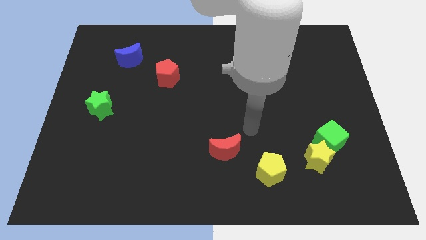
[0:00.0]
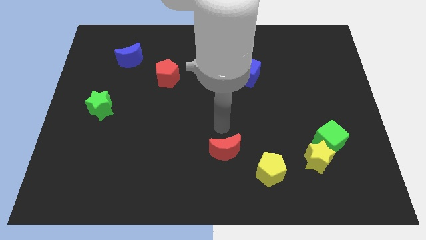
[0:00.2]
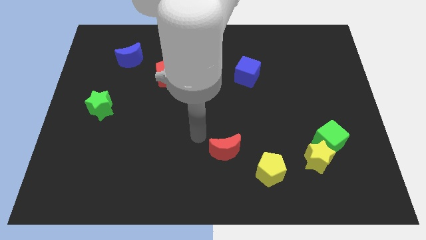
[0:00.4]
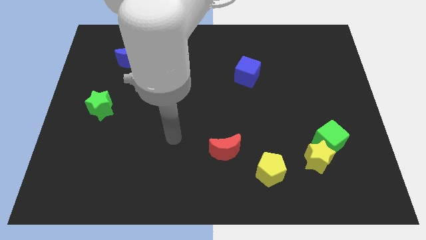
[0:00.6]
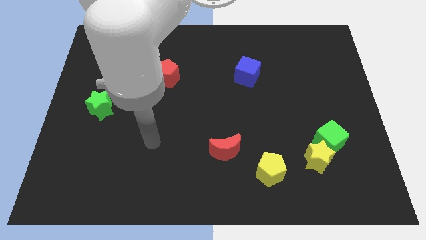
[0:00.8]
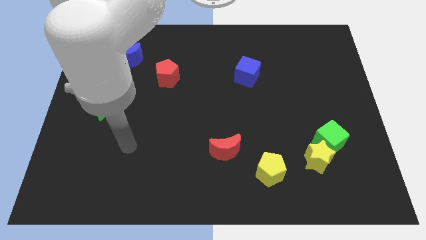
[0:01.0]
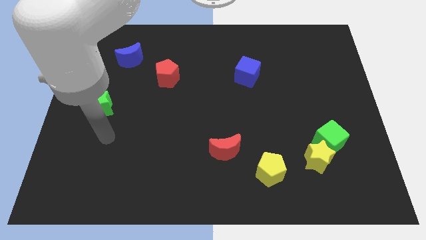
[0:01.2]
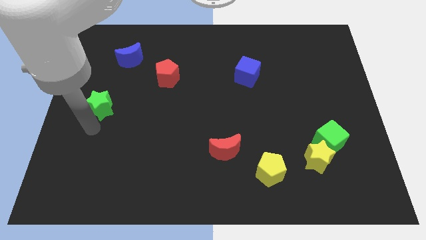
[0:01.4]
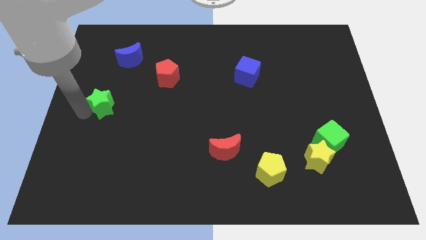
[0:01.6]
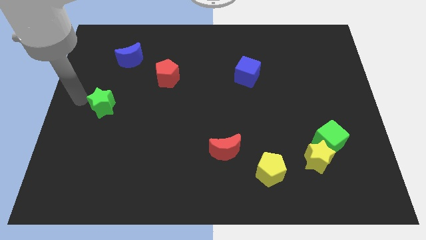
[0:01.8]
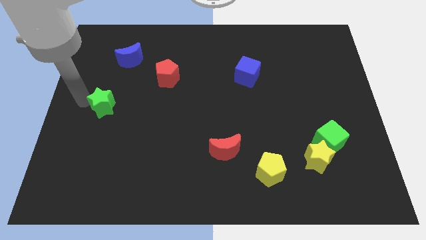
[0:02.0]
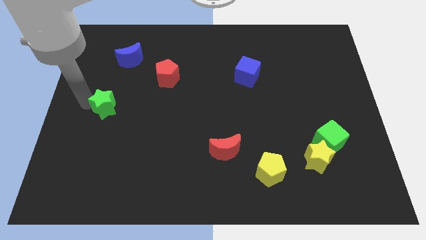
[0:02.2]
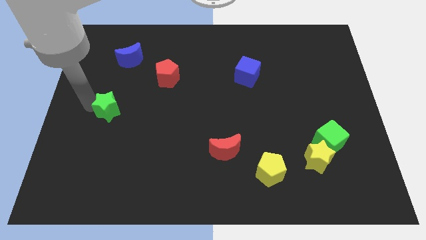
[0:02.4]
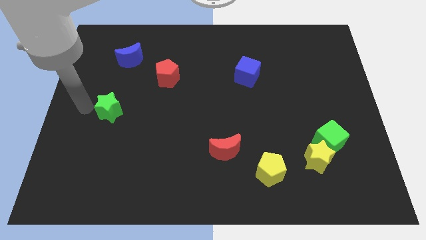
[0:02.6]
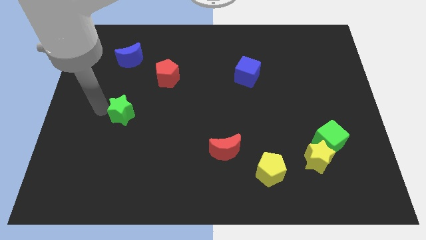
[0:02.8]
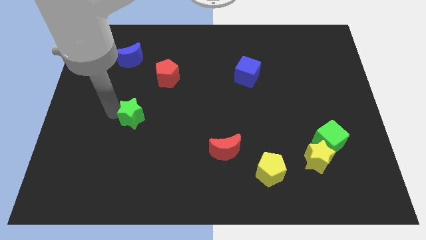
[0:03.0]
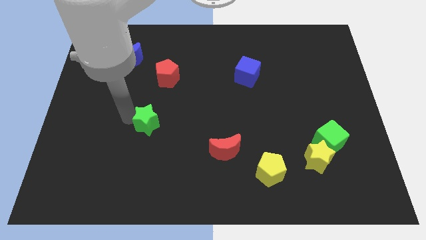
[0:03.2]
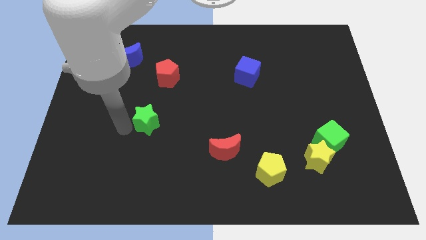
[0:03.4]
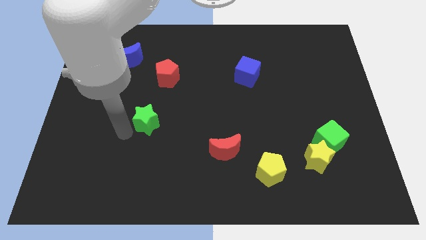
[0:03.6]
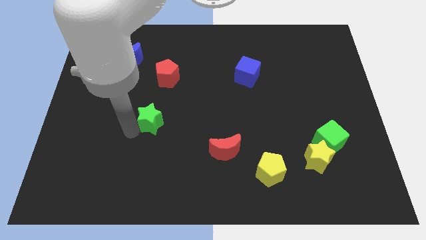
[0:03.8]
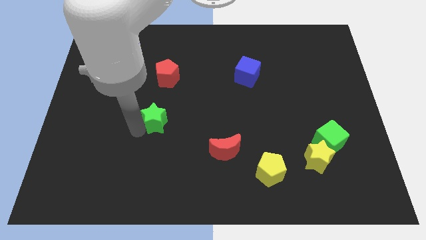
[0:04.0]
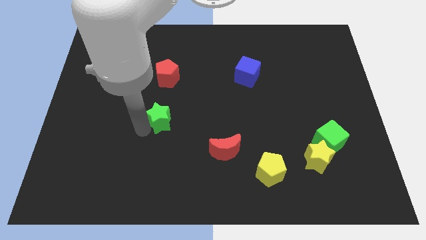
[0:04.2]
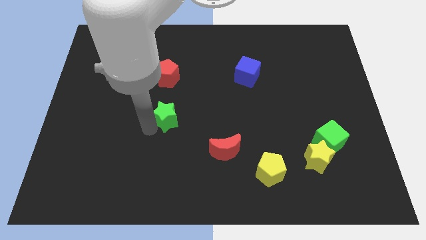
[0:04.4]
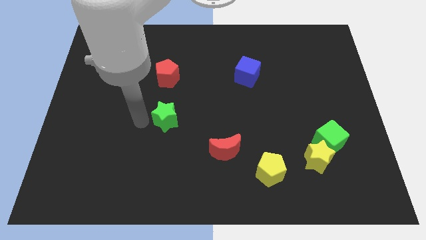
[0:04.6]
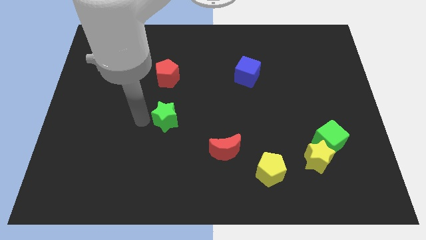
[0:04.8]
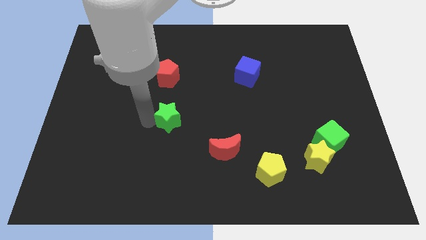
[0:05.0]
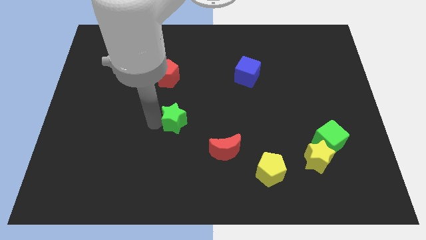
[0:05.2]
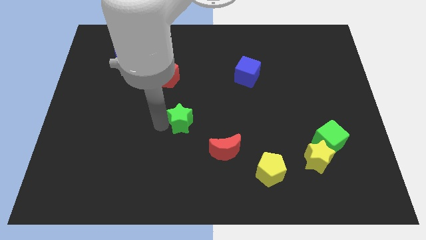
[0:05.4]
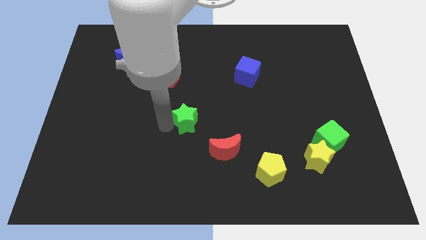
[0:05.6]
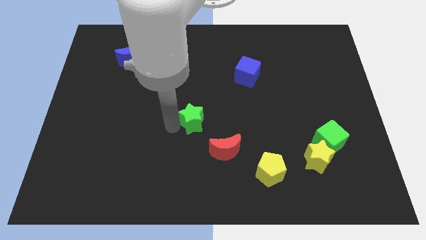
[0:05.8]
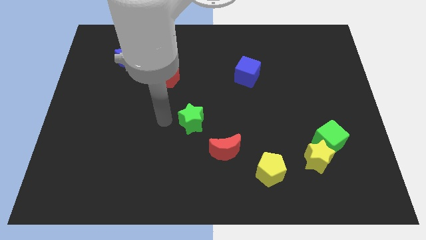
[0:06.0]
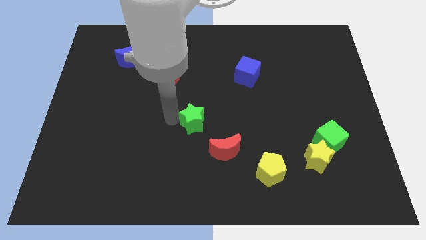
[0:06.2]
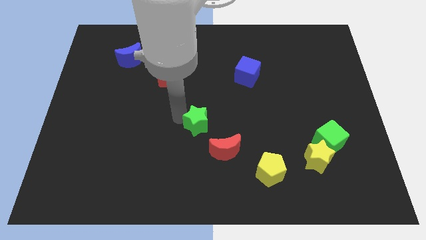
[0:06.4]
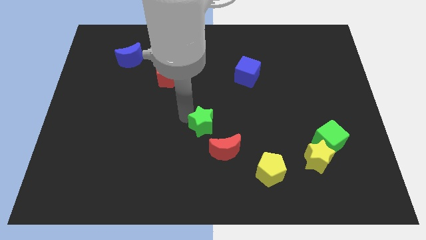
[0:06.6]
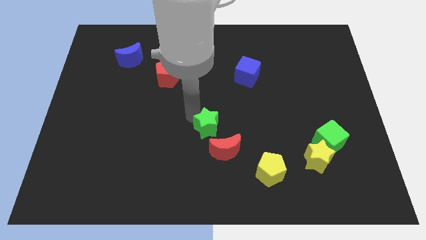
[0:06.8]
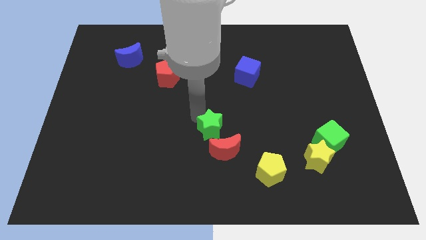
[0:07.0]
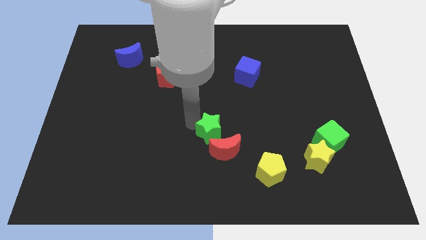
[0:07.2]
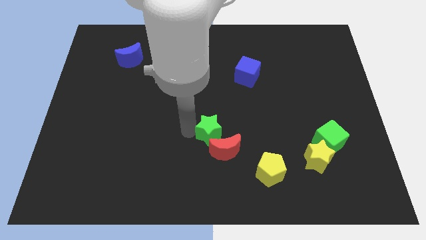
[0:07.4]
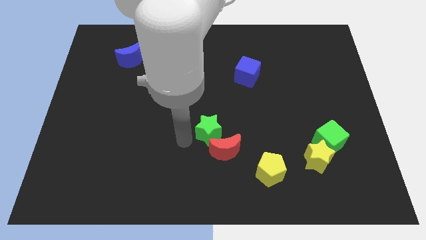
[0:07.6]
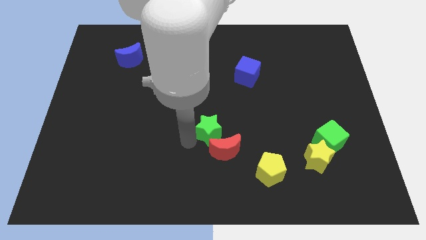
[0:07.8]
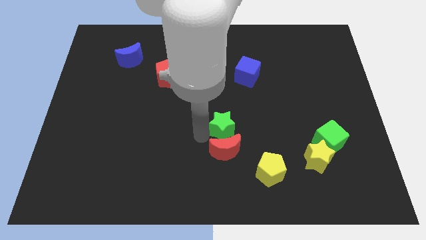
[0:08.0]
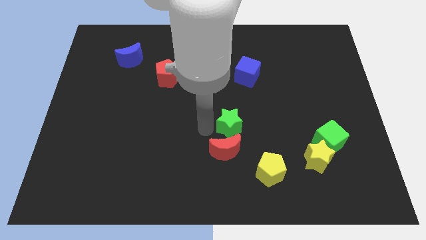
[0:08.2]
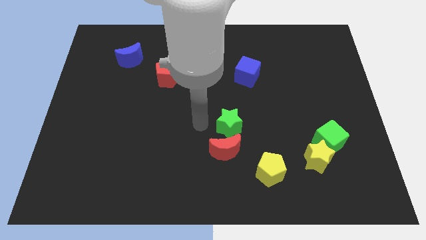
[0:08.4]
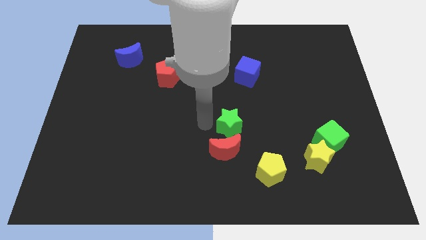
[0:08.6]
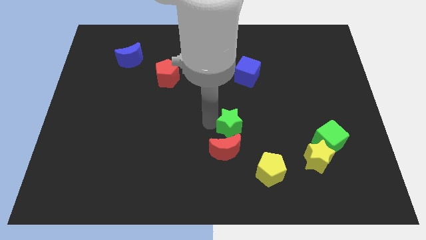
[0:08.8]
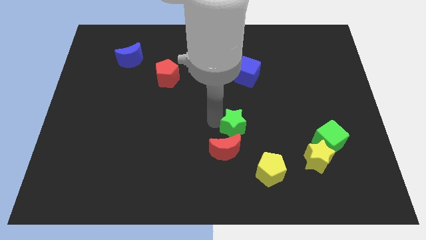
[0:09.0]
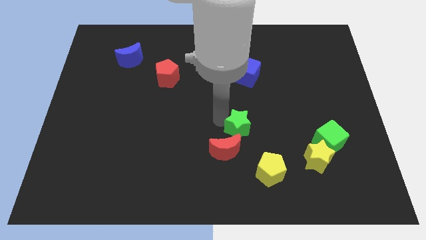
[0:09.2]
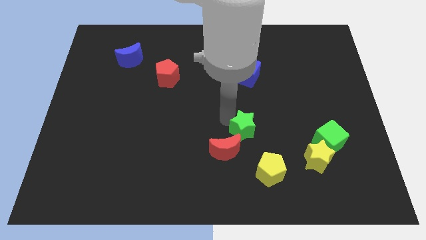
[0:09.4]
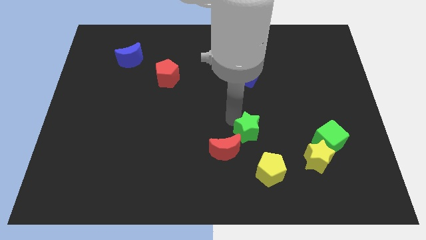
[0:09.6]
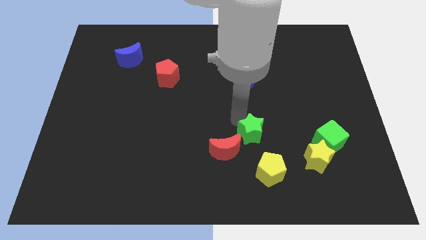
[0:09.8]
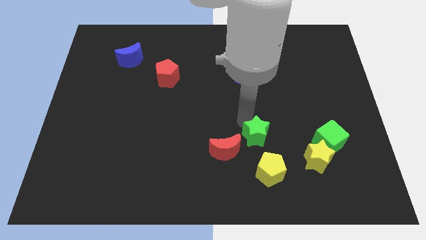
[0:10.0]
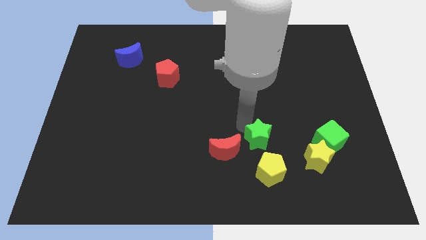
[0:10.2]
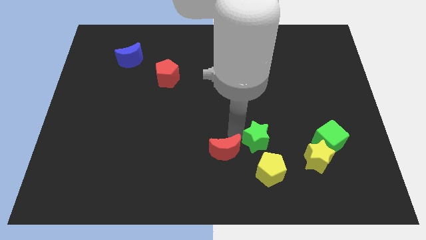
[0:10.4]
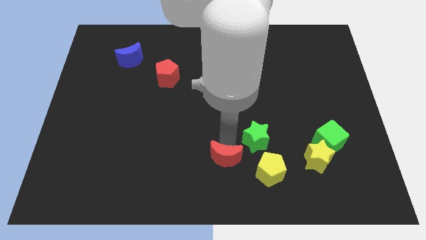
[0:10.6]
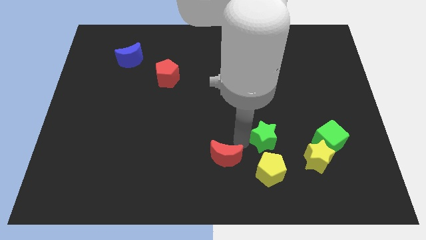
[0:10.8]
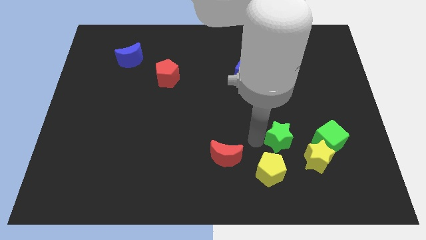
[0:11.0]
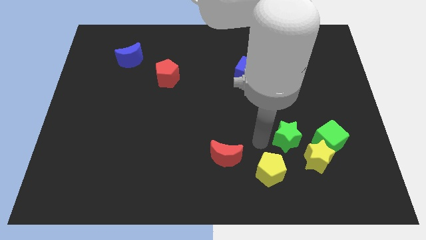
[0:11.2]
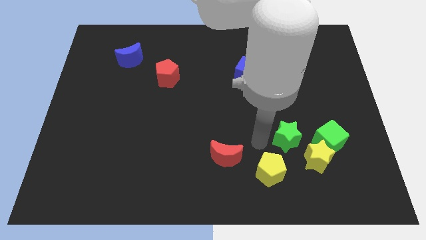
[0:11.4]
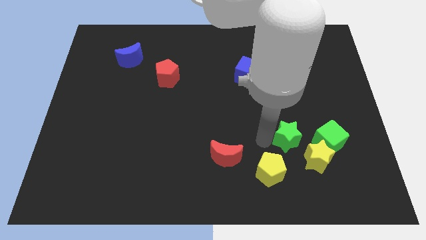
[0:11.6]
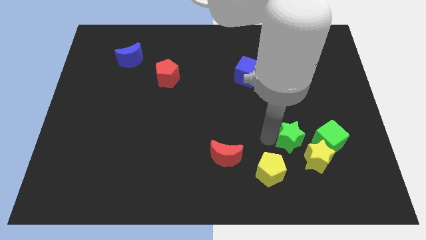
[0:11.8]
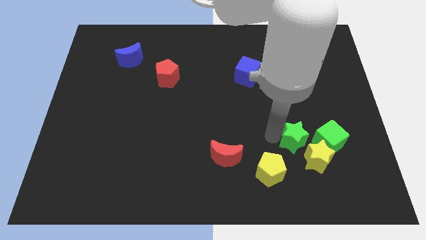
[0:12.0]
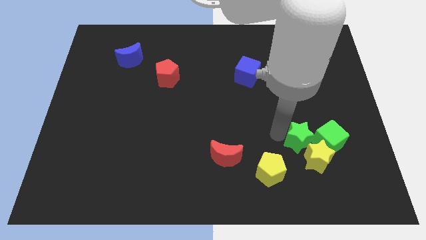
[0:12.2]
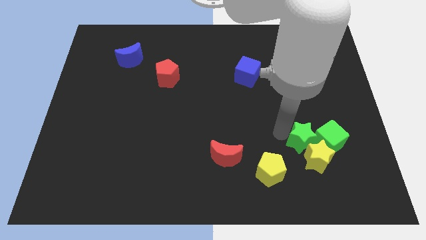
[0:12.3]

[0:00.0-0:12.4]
move the green star close to the green cube

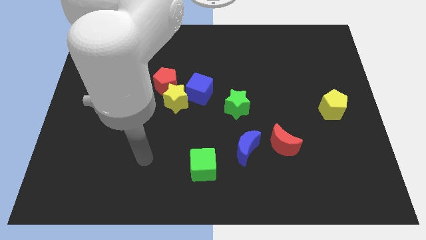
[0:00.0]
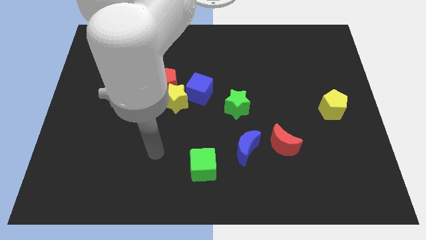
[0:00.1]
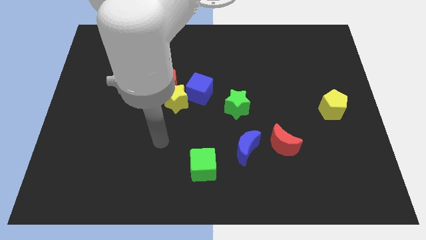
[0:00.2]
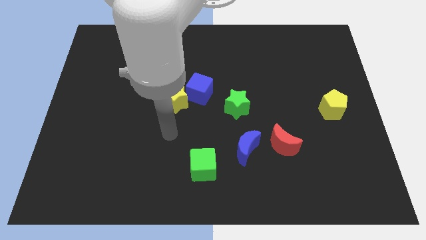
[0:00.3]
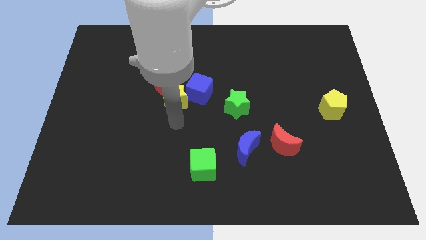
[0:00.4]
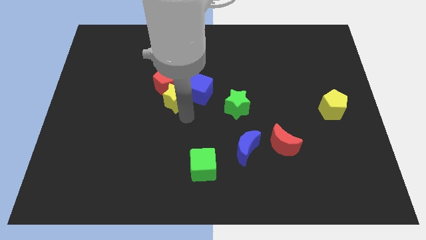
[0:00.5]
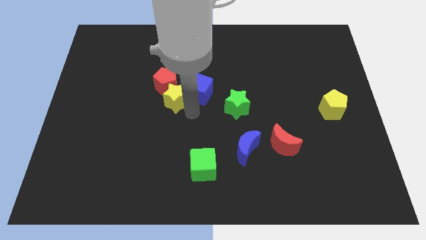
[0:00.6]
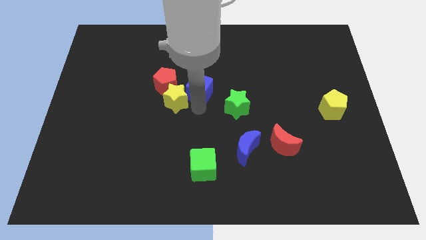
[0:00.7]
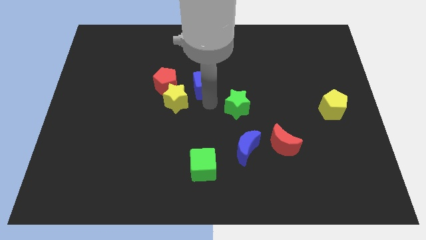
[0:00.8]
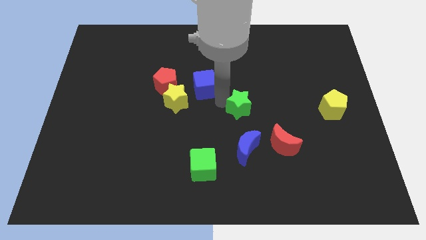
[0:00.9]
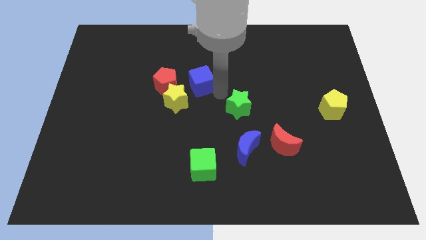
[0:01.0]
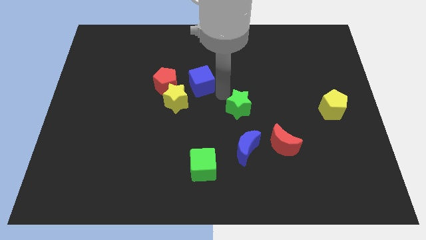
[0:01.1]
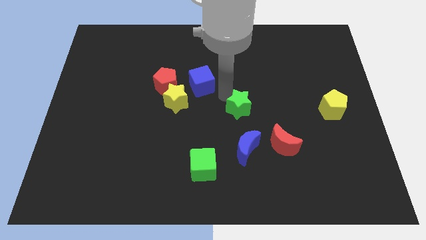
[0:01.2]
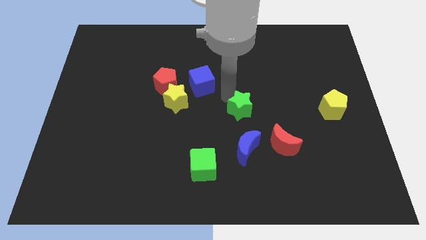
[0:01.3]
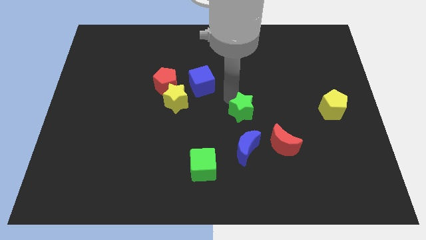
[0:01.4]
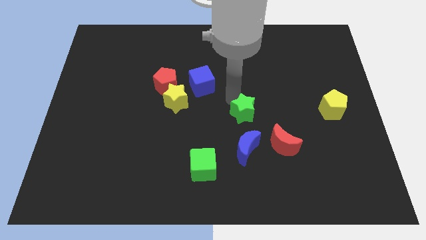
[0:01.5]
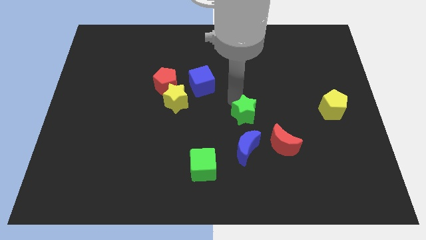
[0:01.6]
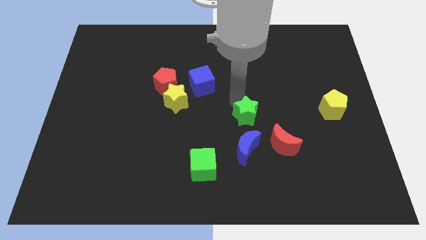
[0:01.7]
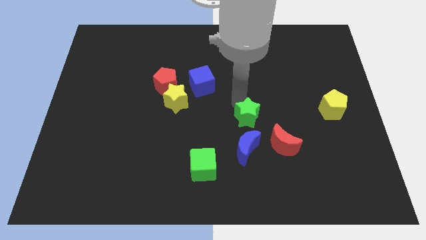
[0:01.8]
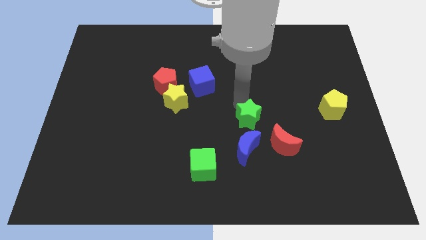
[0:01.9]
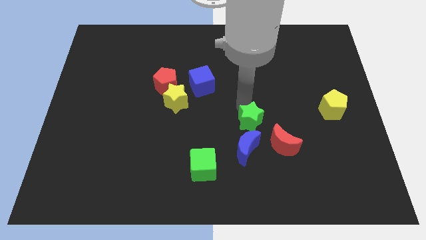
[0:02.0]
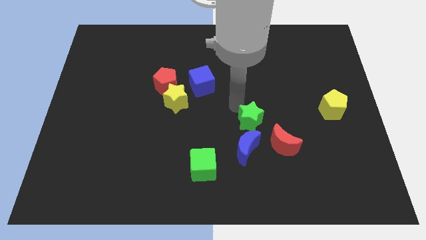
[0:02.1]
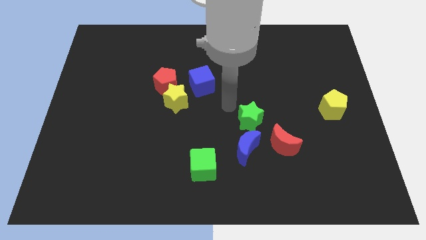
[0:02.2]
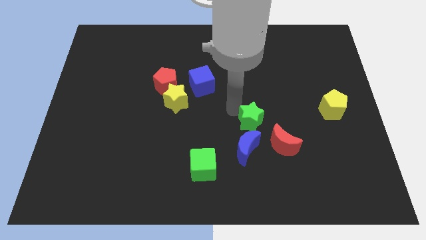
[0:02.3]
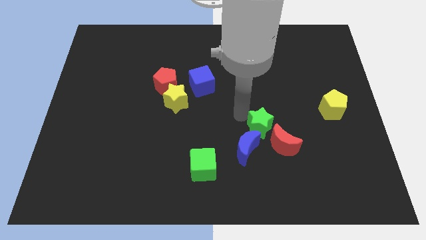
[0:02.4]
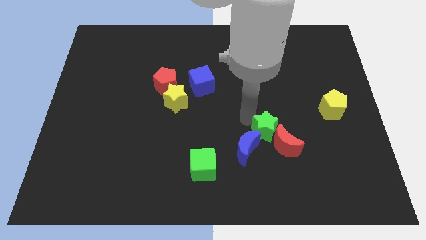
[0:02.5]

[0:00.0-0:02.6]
slide the green star towards the red moon
